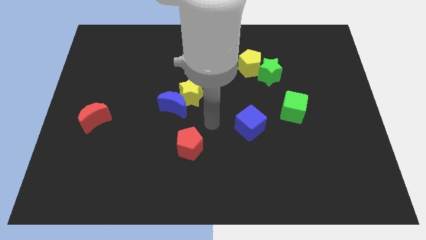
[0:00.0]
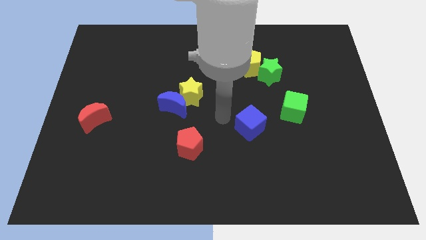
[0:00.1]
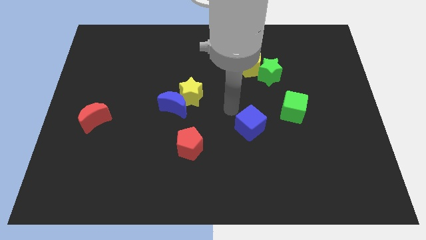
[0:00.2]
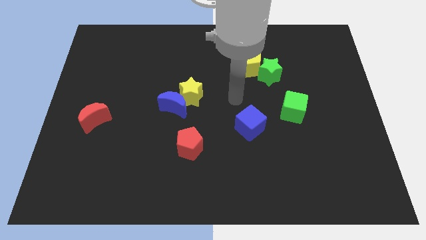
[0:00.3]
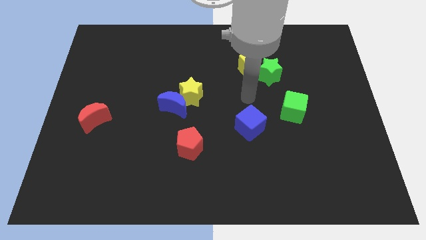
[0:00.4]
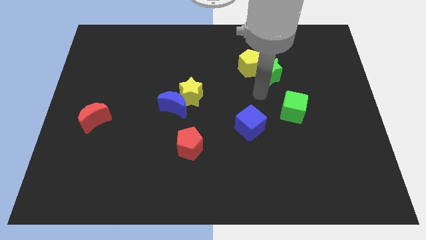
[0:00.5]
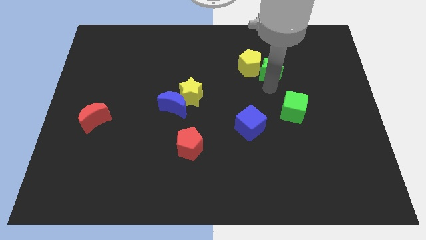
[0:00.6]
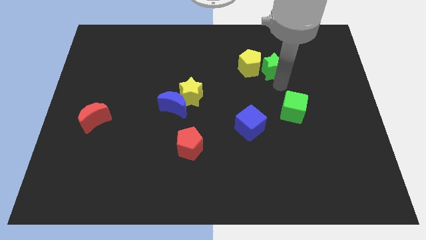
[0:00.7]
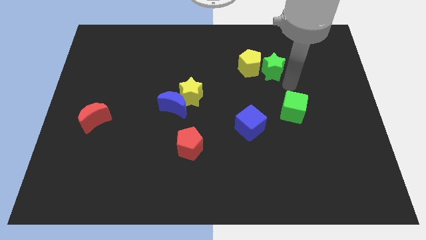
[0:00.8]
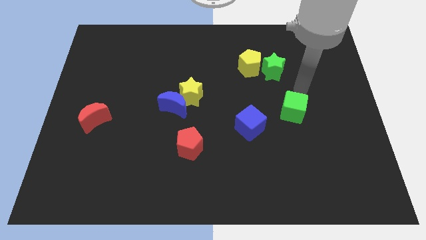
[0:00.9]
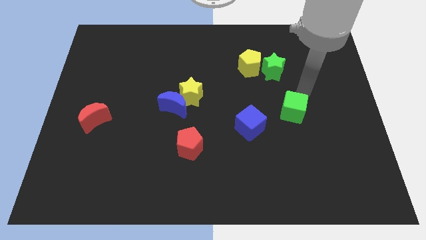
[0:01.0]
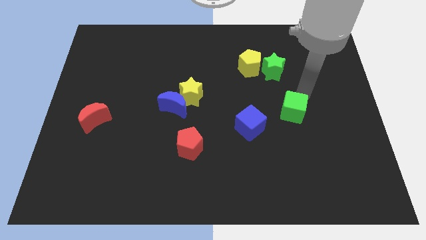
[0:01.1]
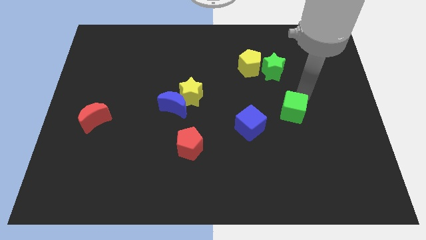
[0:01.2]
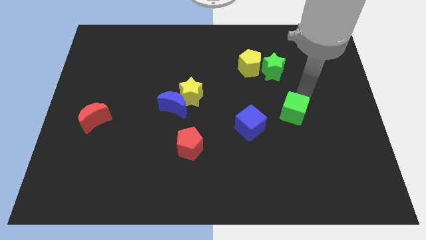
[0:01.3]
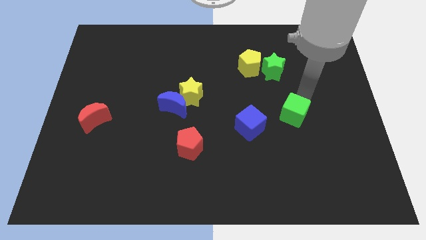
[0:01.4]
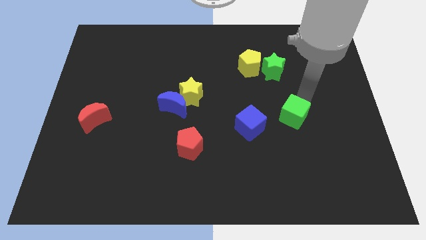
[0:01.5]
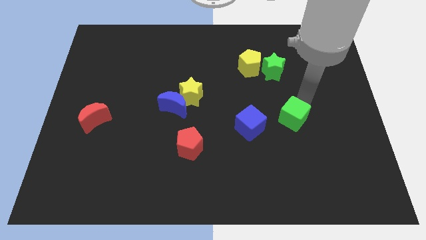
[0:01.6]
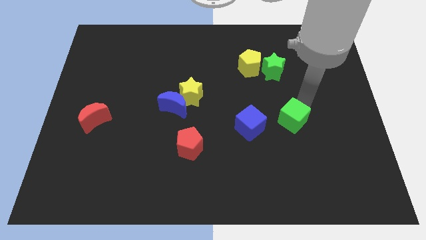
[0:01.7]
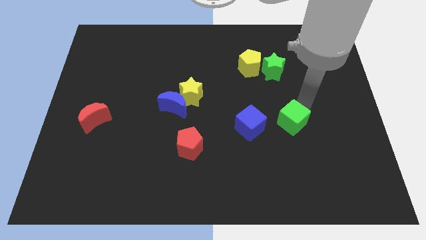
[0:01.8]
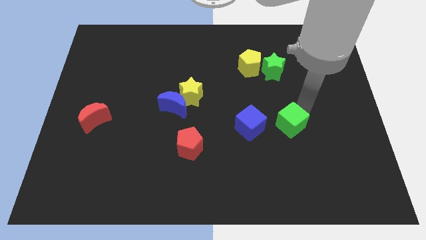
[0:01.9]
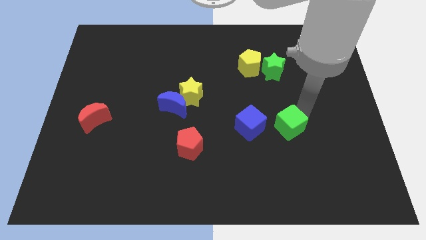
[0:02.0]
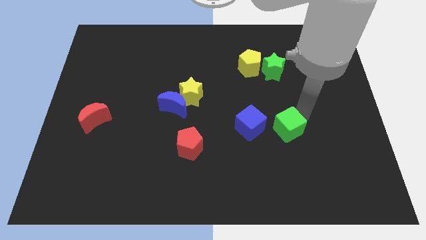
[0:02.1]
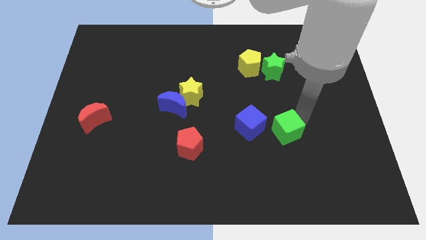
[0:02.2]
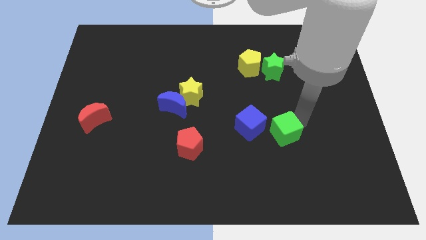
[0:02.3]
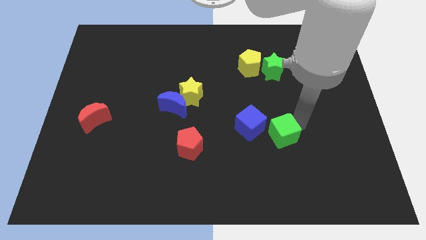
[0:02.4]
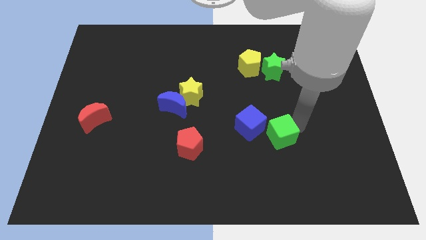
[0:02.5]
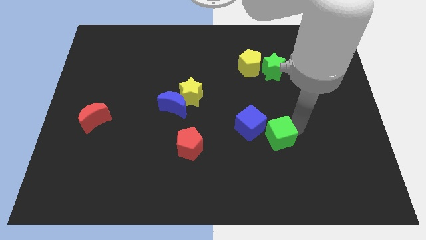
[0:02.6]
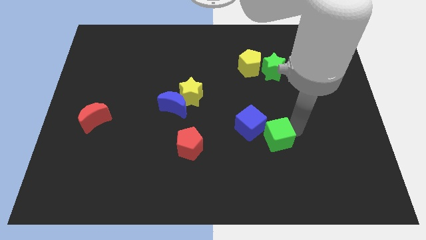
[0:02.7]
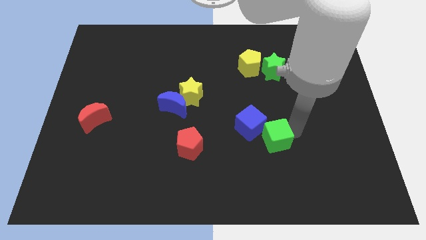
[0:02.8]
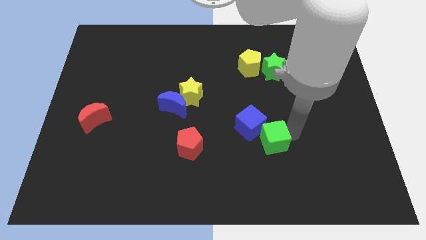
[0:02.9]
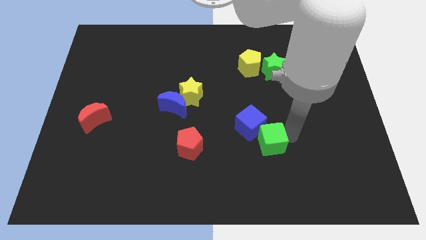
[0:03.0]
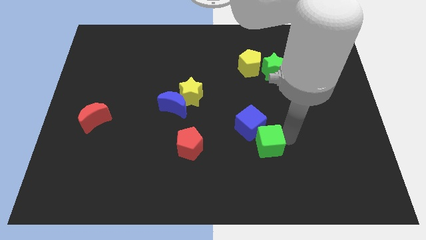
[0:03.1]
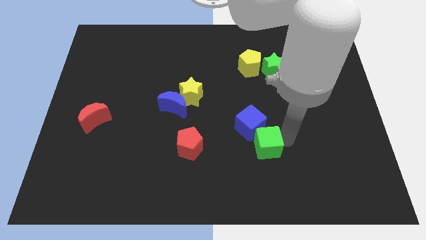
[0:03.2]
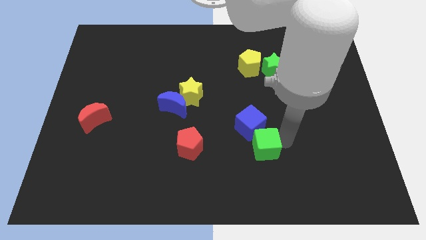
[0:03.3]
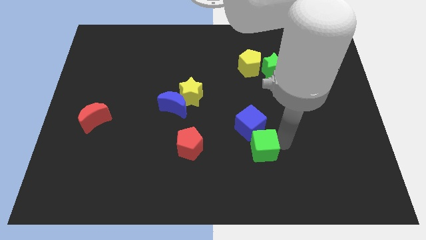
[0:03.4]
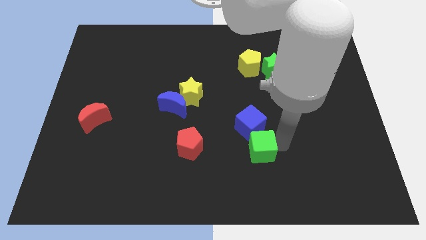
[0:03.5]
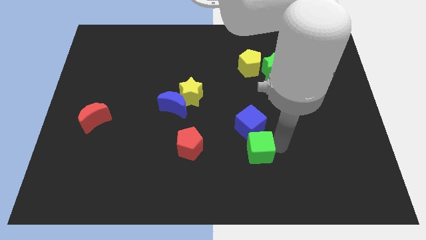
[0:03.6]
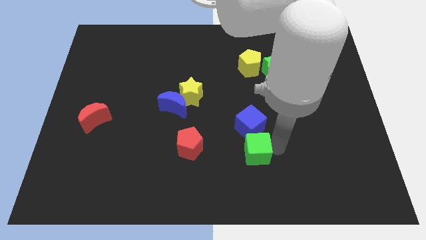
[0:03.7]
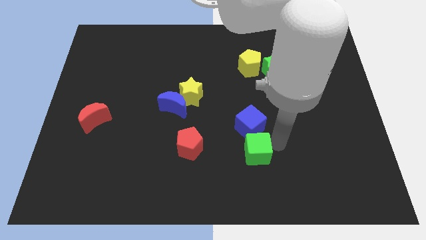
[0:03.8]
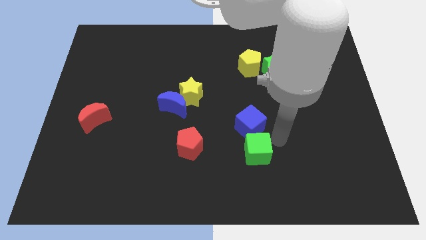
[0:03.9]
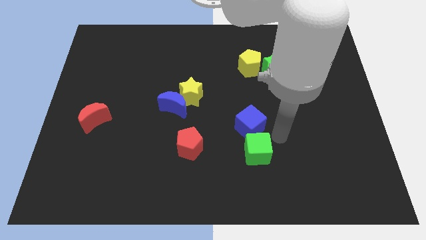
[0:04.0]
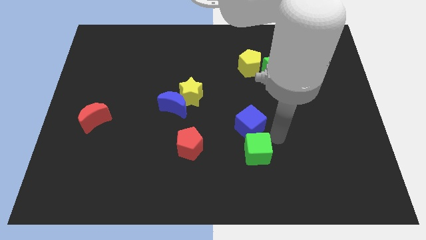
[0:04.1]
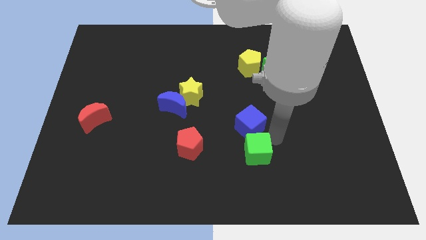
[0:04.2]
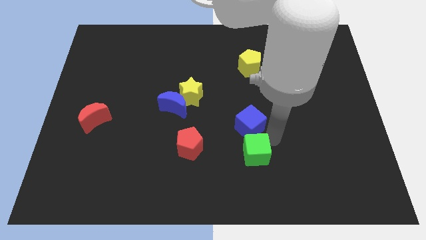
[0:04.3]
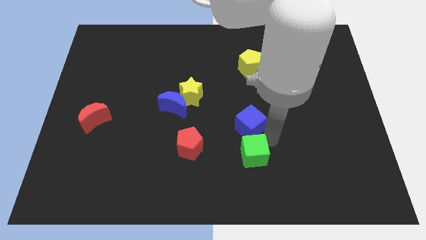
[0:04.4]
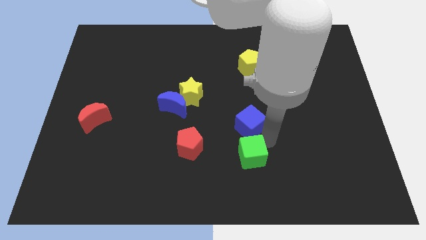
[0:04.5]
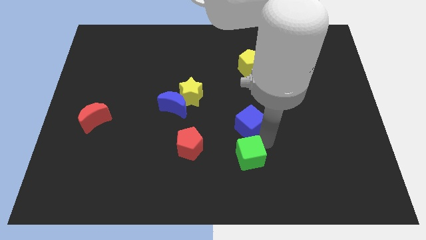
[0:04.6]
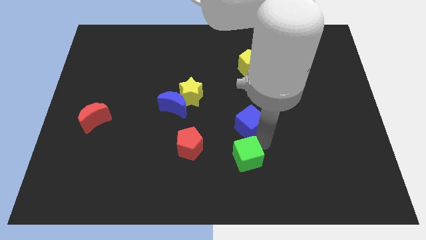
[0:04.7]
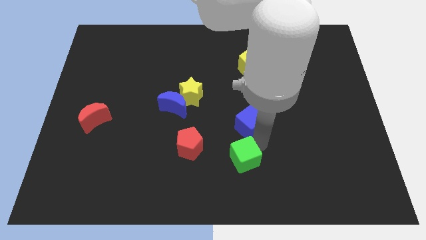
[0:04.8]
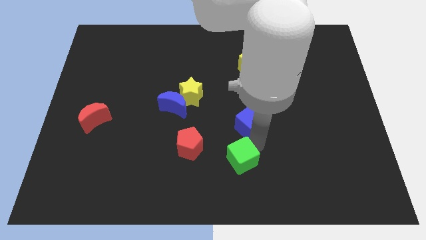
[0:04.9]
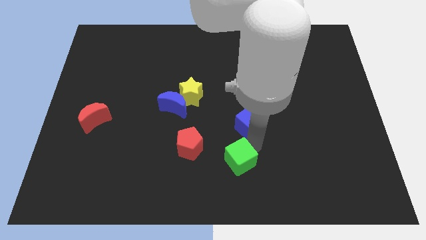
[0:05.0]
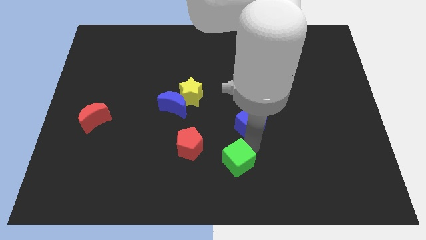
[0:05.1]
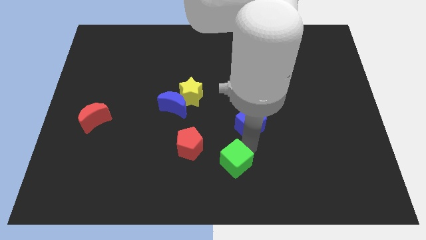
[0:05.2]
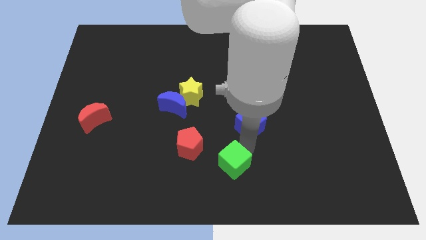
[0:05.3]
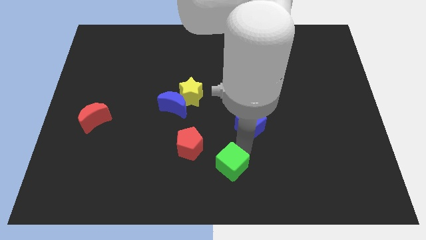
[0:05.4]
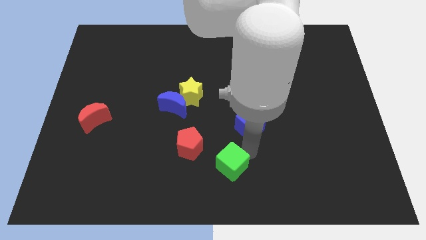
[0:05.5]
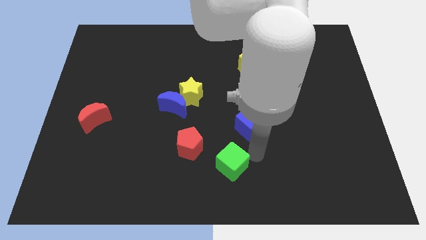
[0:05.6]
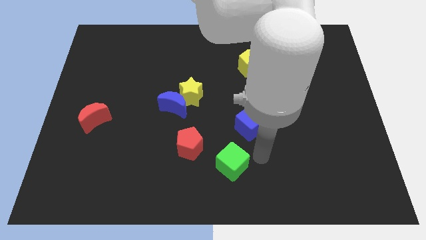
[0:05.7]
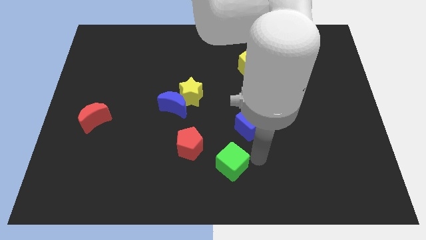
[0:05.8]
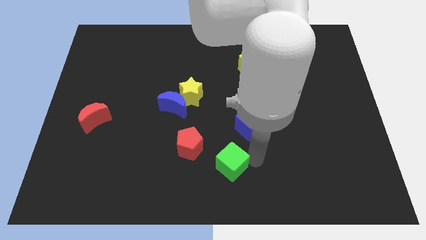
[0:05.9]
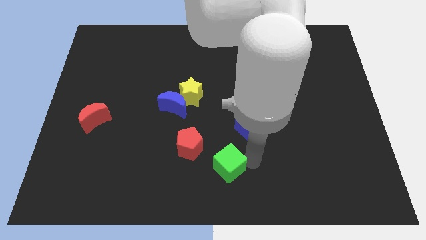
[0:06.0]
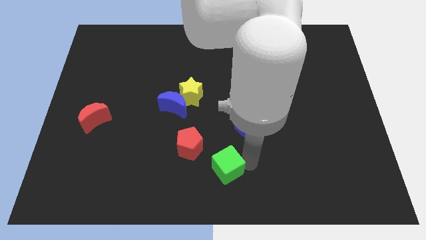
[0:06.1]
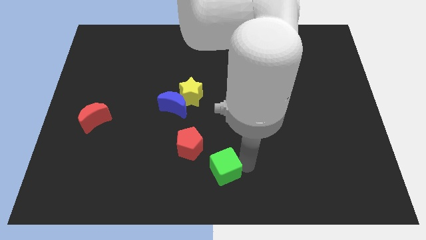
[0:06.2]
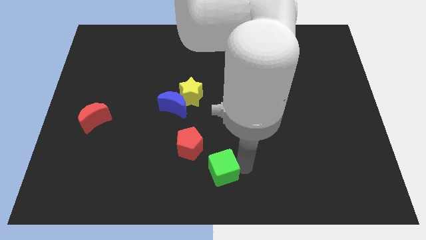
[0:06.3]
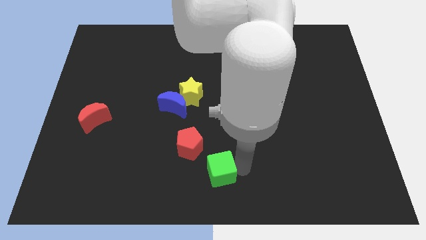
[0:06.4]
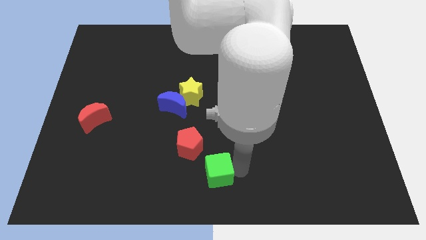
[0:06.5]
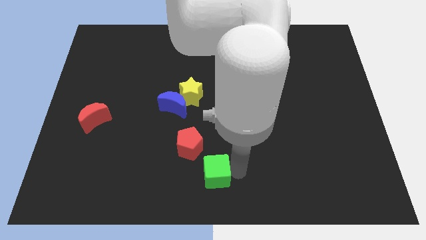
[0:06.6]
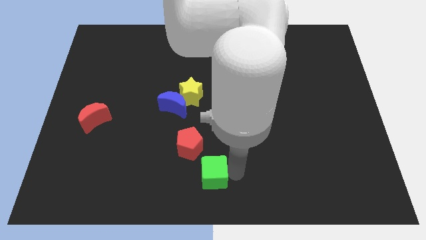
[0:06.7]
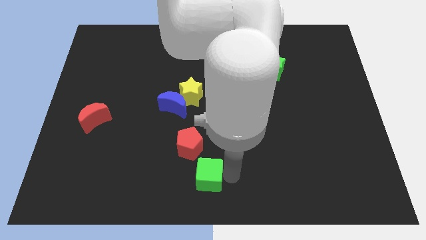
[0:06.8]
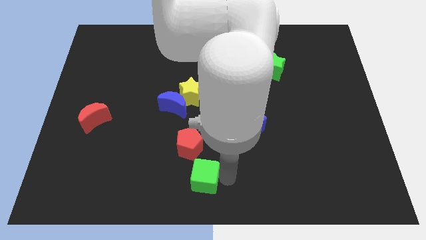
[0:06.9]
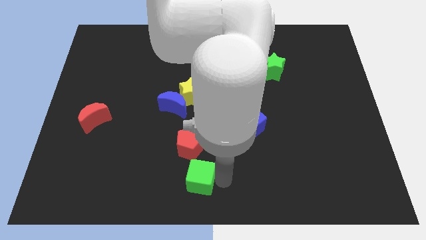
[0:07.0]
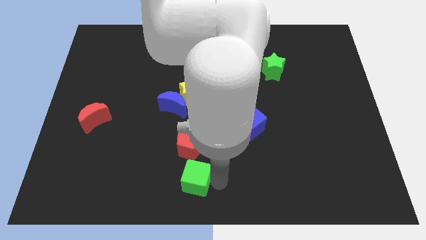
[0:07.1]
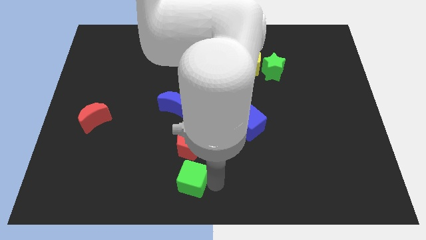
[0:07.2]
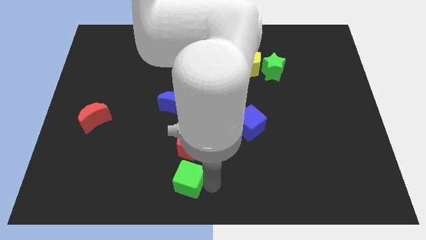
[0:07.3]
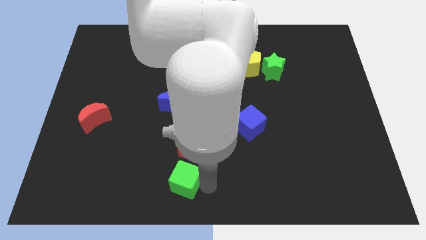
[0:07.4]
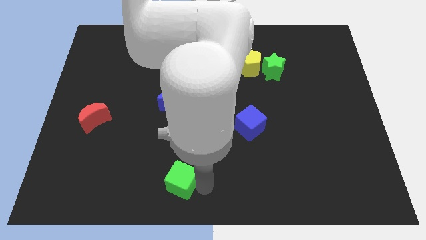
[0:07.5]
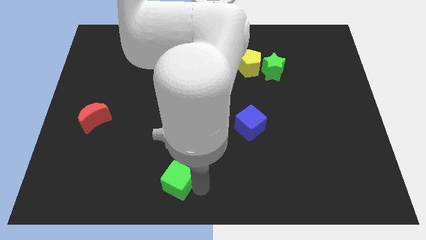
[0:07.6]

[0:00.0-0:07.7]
push the green cube to the bottom left of the red pentagon
